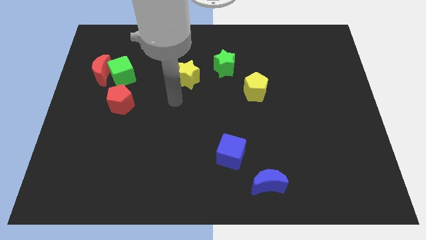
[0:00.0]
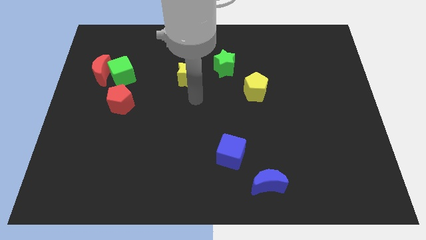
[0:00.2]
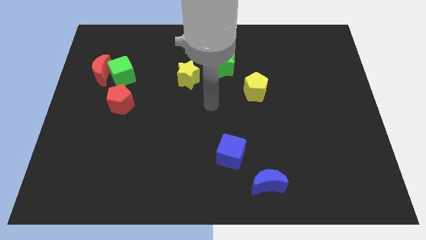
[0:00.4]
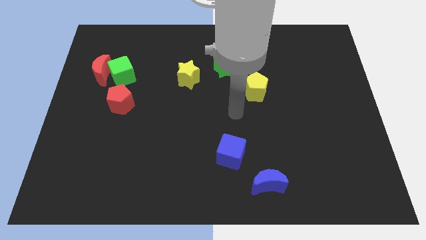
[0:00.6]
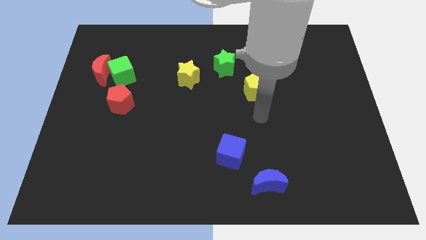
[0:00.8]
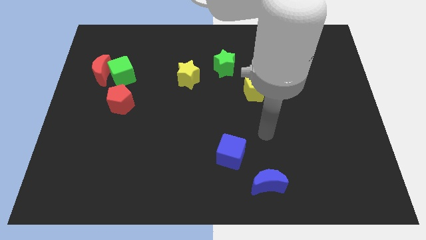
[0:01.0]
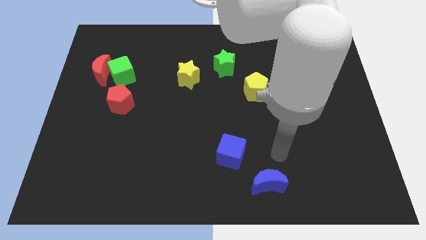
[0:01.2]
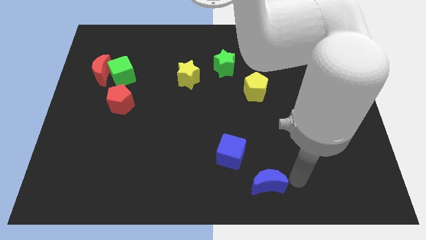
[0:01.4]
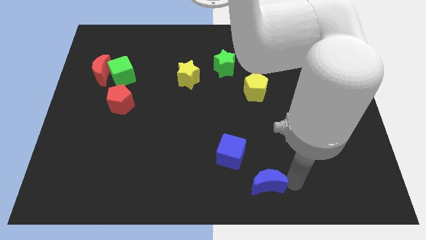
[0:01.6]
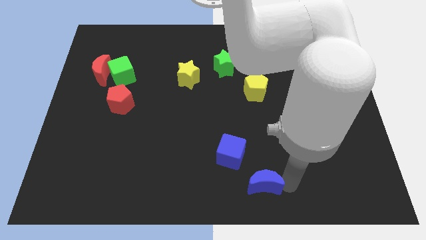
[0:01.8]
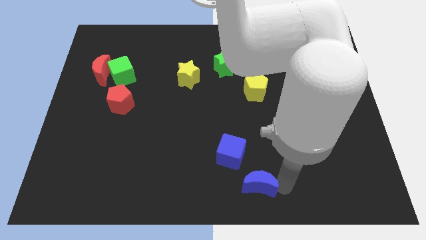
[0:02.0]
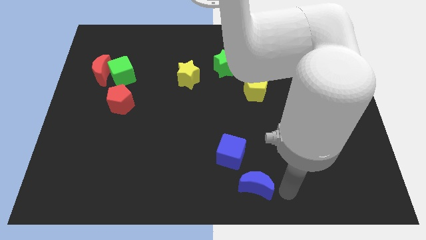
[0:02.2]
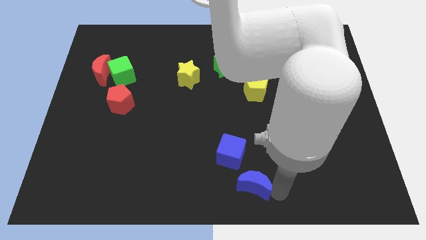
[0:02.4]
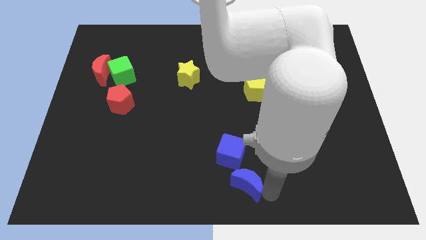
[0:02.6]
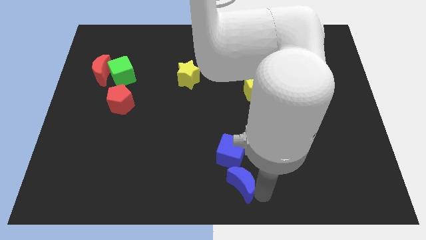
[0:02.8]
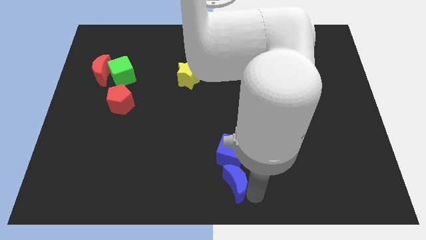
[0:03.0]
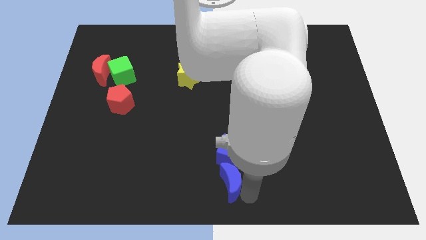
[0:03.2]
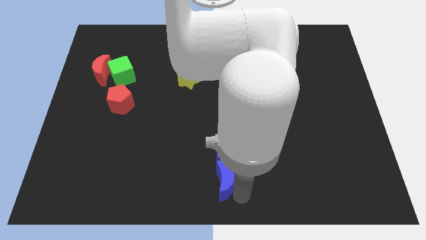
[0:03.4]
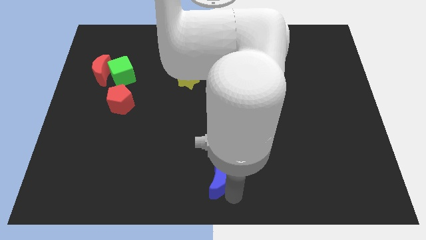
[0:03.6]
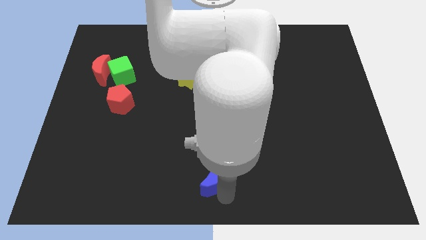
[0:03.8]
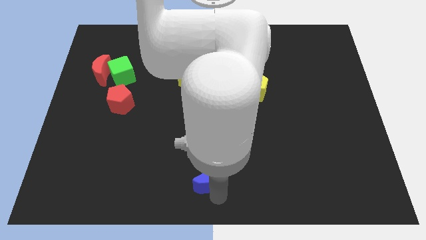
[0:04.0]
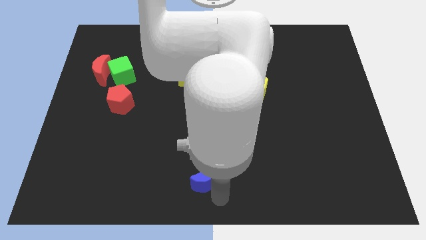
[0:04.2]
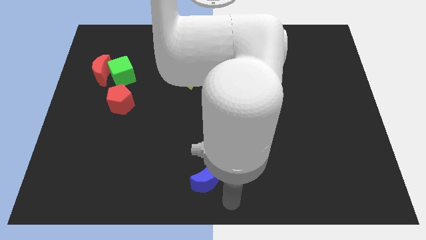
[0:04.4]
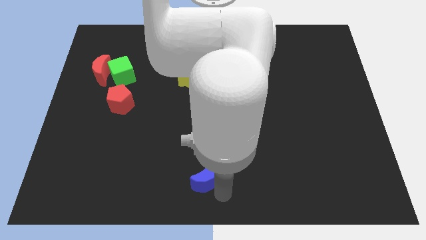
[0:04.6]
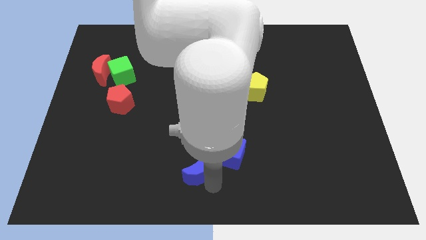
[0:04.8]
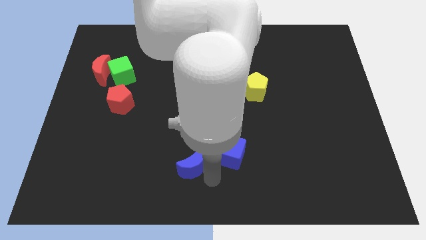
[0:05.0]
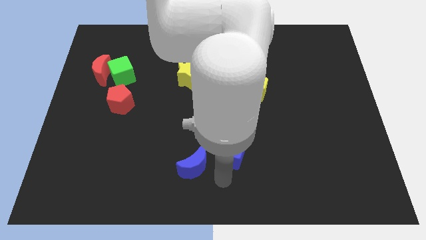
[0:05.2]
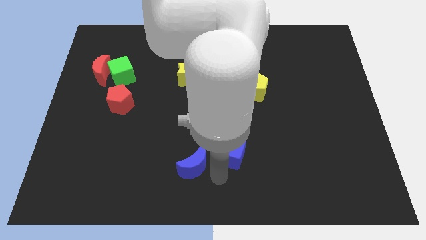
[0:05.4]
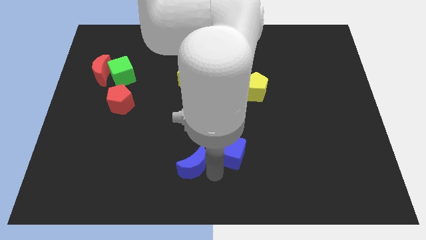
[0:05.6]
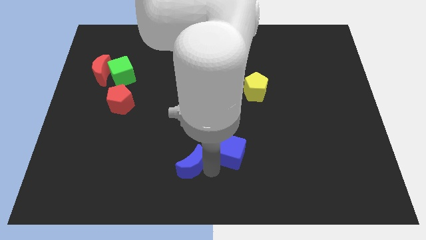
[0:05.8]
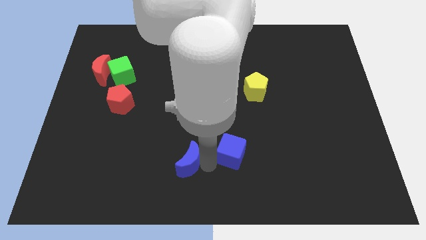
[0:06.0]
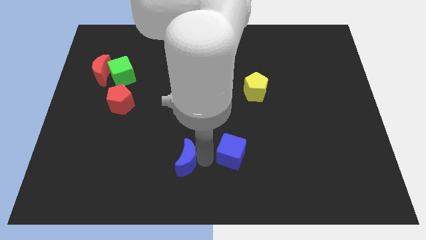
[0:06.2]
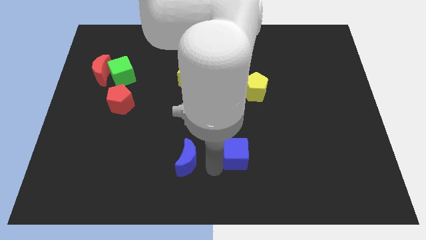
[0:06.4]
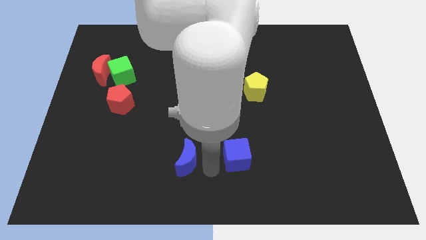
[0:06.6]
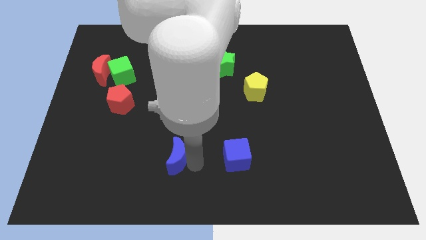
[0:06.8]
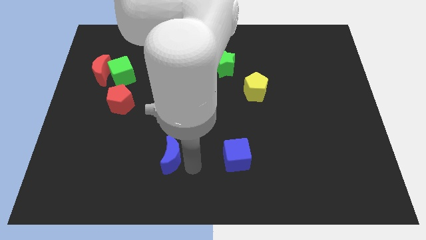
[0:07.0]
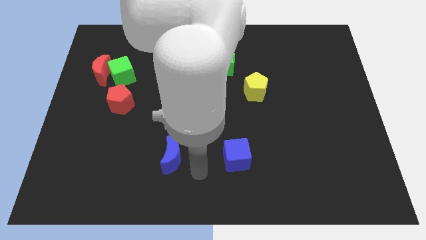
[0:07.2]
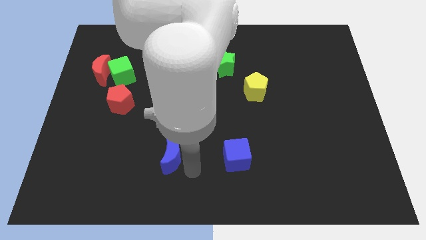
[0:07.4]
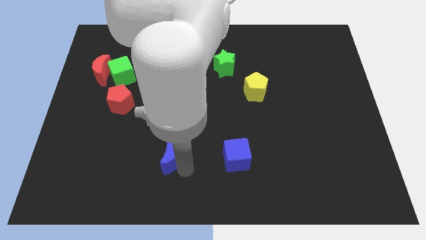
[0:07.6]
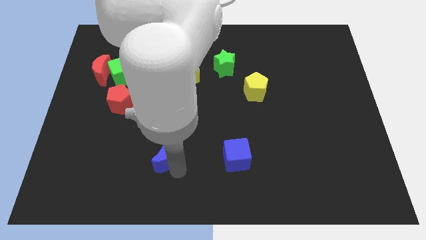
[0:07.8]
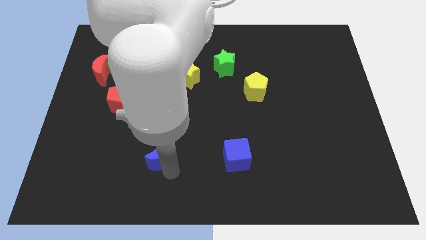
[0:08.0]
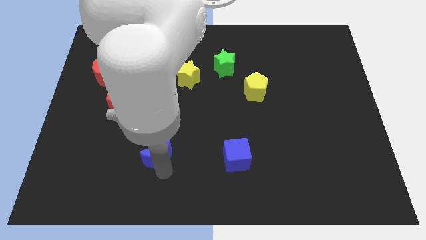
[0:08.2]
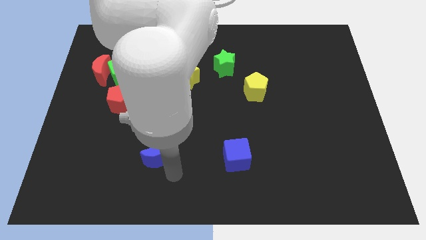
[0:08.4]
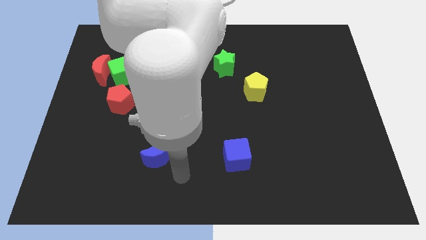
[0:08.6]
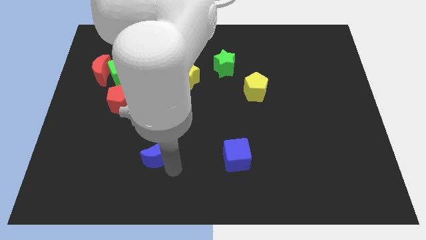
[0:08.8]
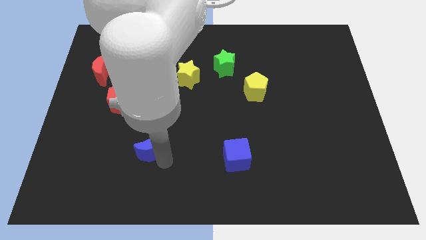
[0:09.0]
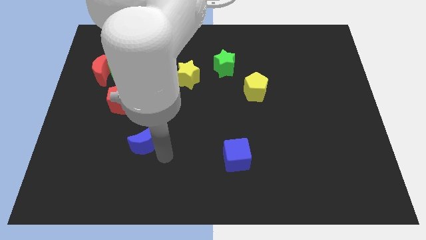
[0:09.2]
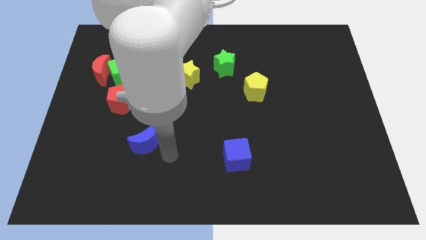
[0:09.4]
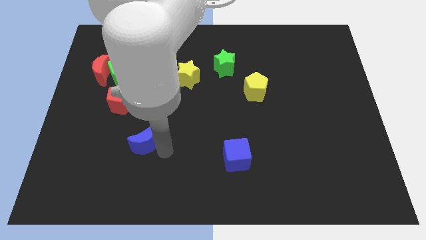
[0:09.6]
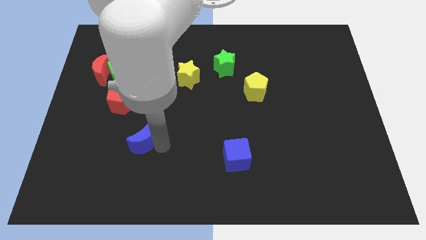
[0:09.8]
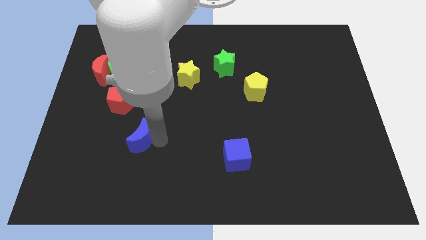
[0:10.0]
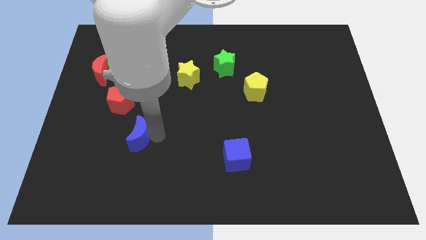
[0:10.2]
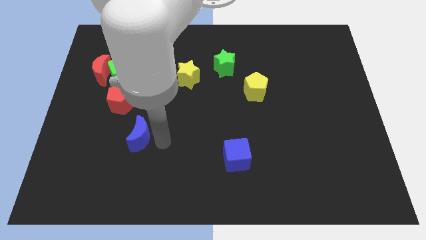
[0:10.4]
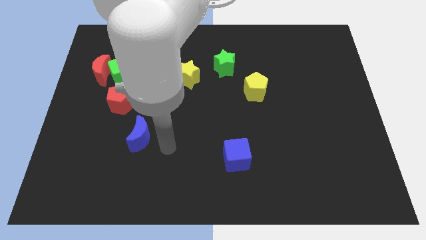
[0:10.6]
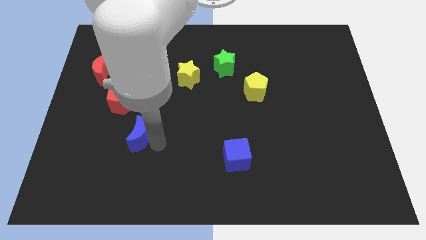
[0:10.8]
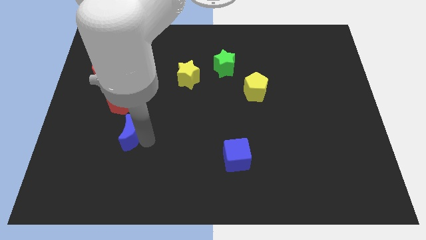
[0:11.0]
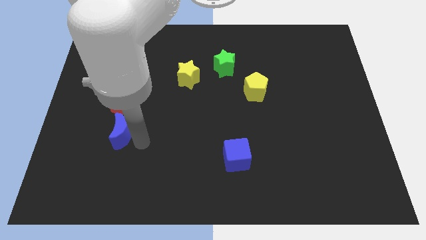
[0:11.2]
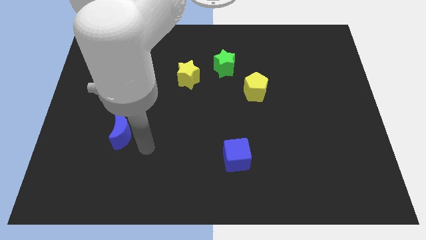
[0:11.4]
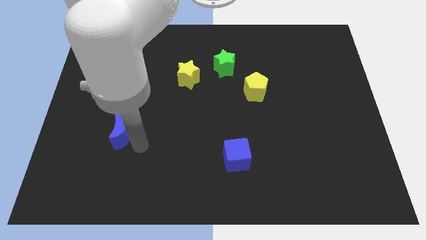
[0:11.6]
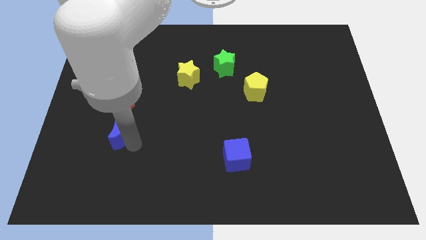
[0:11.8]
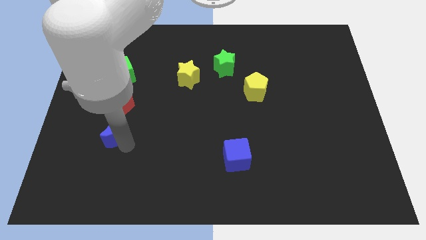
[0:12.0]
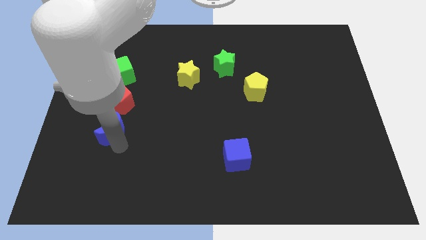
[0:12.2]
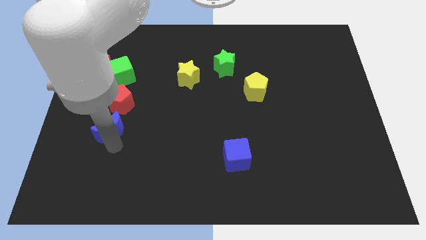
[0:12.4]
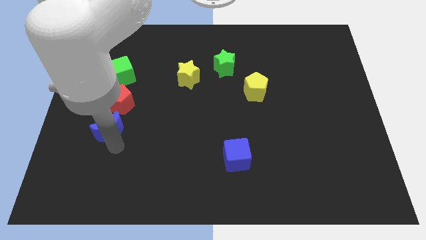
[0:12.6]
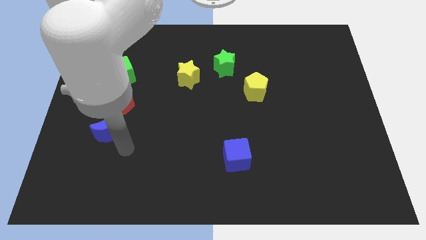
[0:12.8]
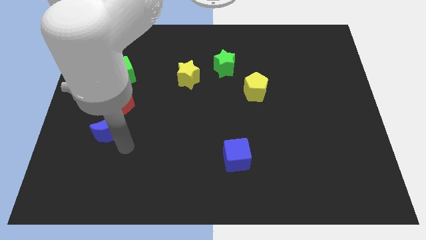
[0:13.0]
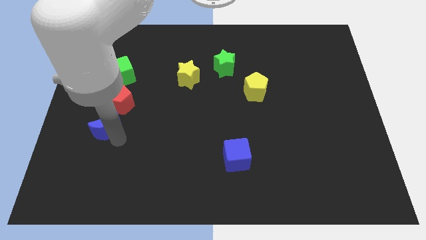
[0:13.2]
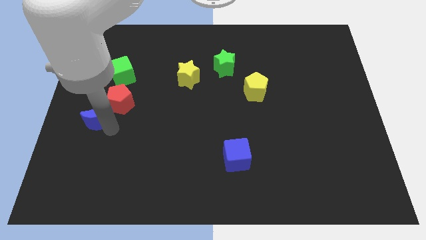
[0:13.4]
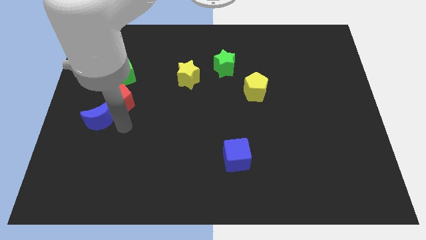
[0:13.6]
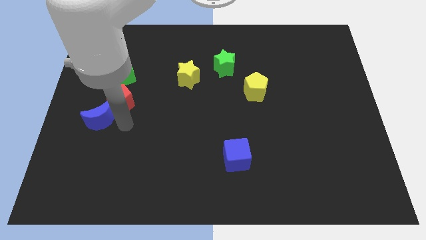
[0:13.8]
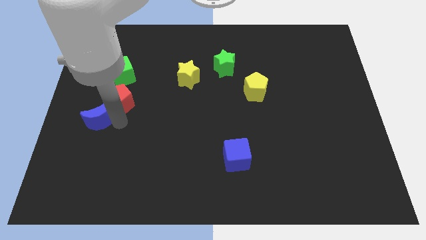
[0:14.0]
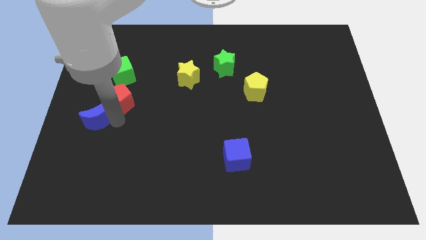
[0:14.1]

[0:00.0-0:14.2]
put the blue moon to the center left
